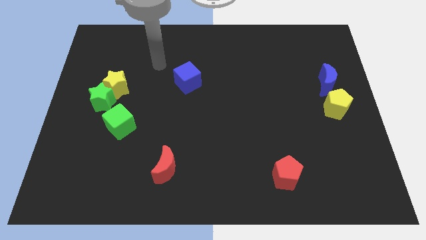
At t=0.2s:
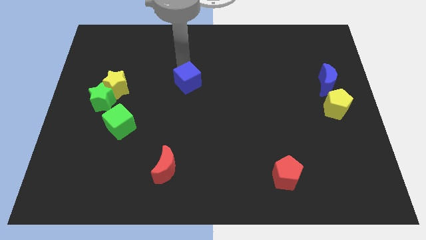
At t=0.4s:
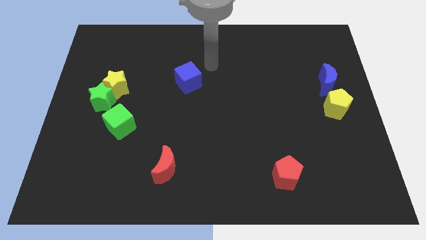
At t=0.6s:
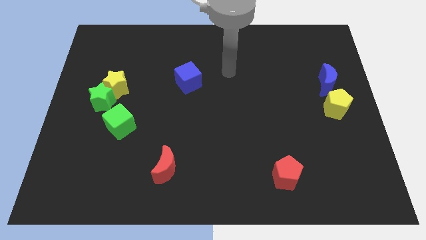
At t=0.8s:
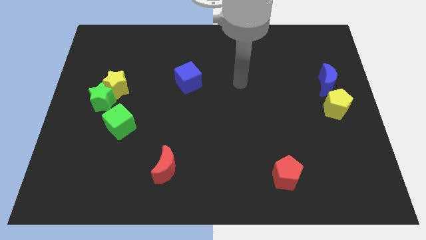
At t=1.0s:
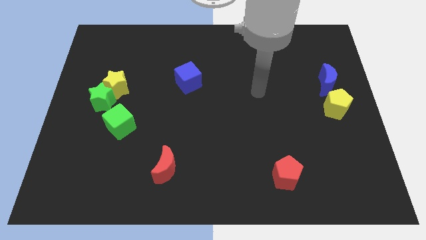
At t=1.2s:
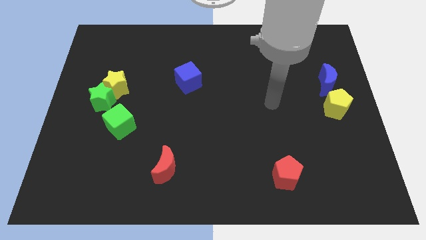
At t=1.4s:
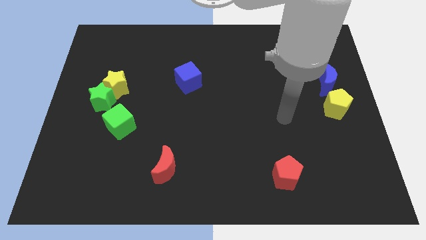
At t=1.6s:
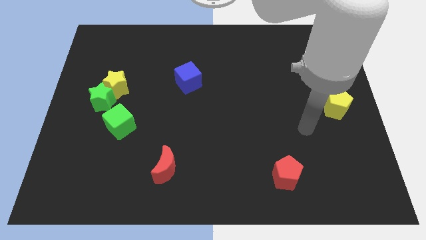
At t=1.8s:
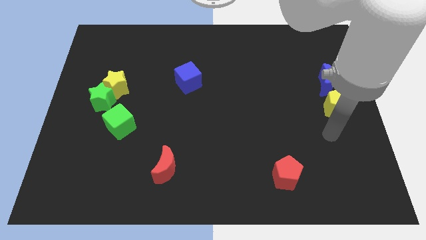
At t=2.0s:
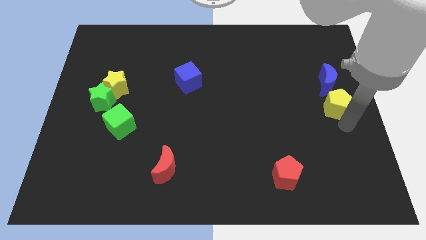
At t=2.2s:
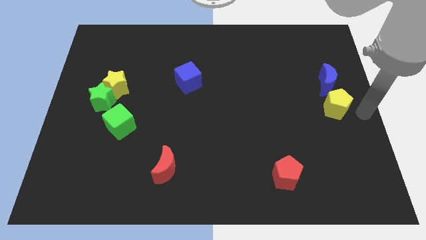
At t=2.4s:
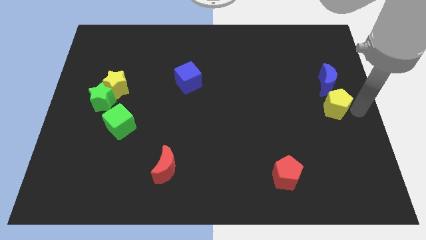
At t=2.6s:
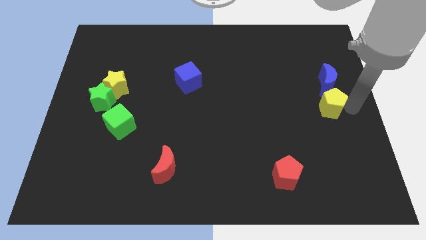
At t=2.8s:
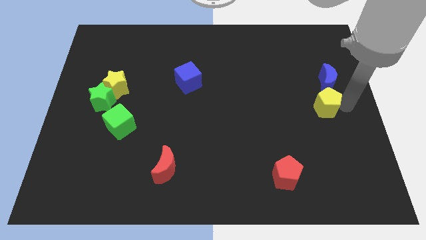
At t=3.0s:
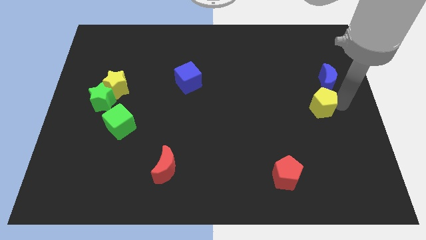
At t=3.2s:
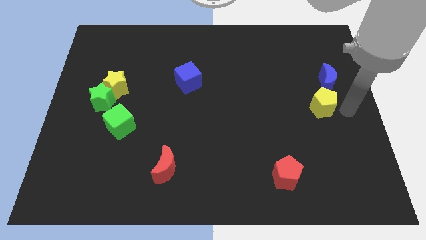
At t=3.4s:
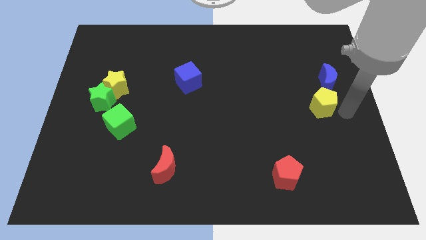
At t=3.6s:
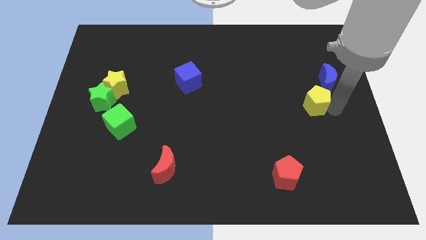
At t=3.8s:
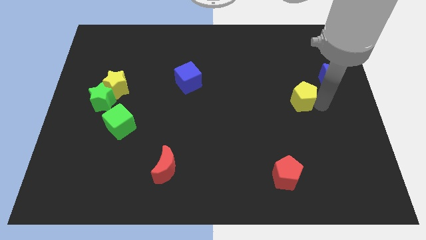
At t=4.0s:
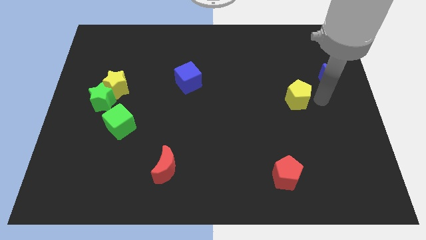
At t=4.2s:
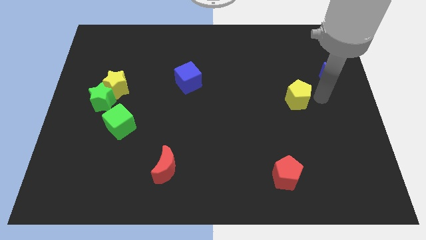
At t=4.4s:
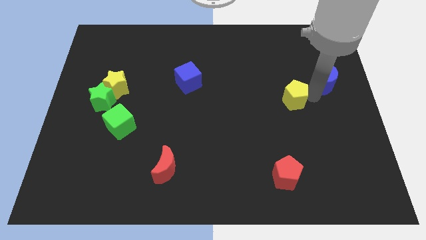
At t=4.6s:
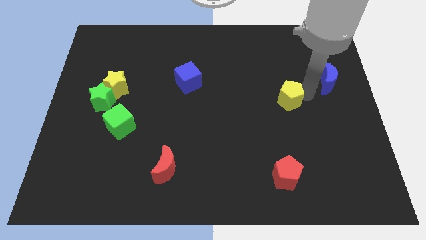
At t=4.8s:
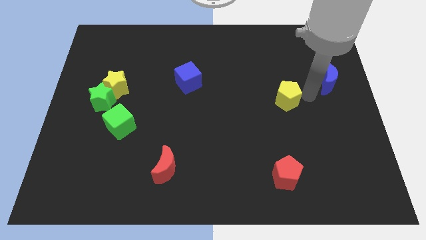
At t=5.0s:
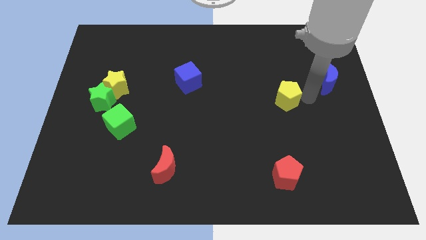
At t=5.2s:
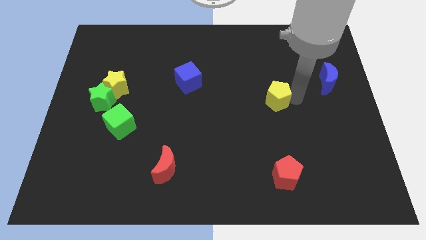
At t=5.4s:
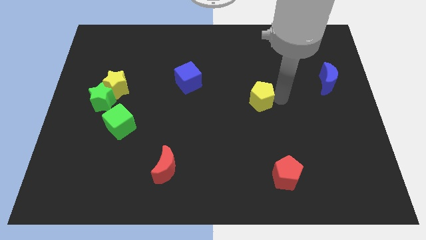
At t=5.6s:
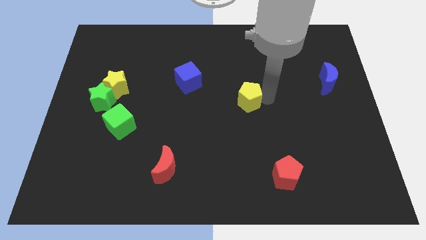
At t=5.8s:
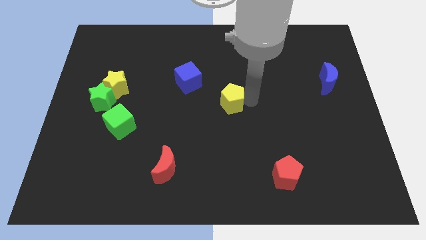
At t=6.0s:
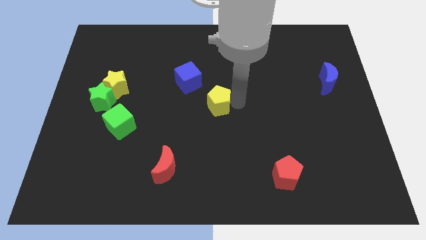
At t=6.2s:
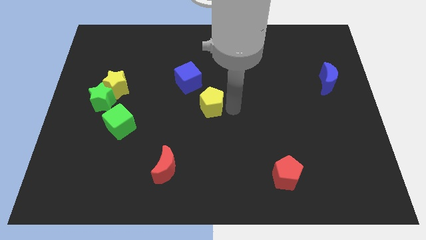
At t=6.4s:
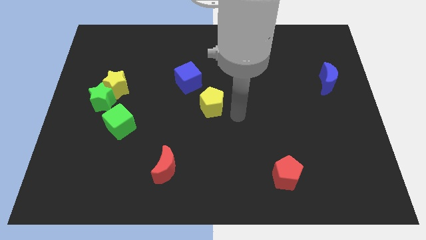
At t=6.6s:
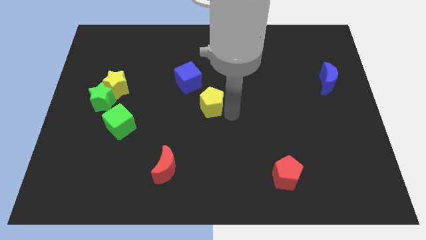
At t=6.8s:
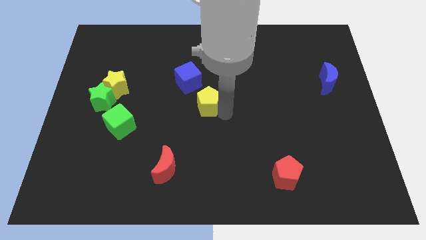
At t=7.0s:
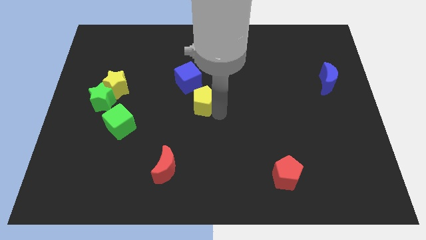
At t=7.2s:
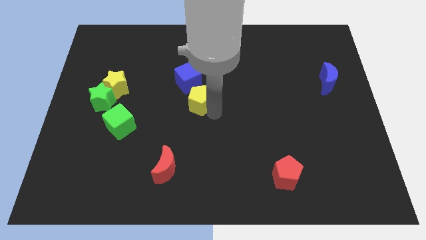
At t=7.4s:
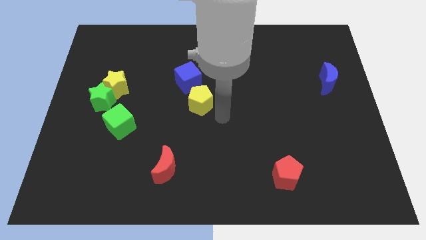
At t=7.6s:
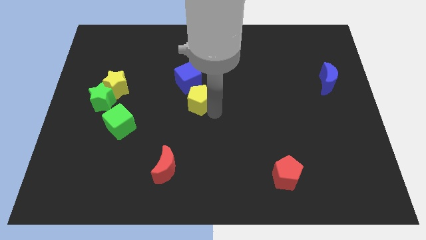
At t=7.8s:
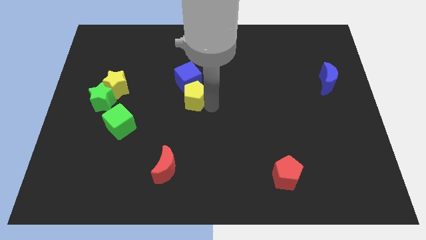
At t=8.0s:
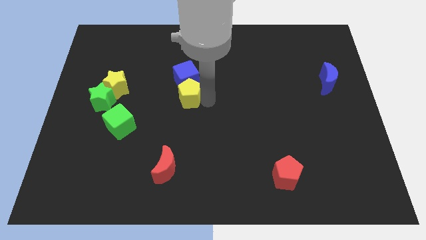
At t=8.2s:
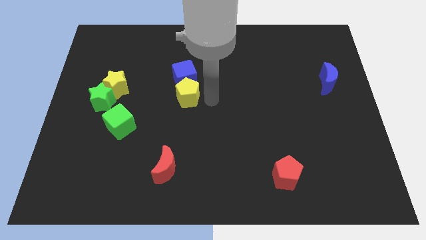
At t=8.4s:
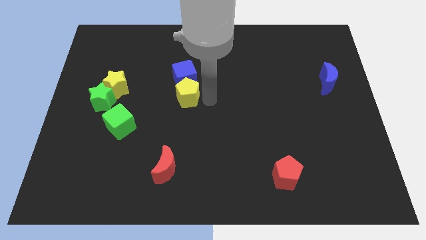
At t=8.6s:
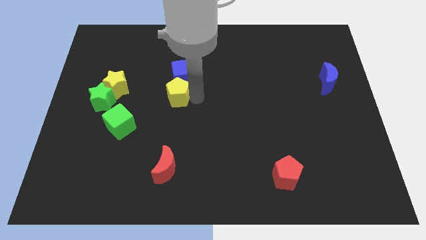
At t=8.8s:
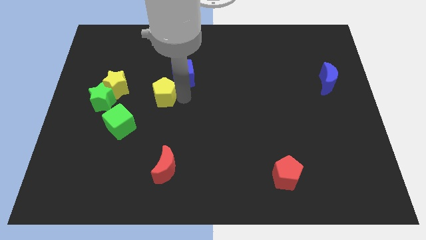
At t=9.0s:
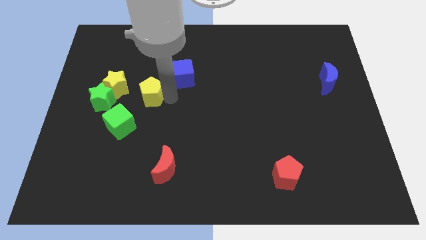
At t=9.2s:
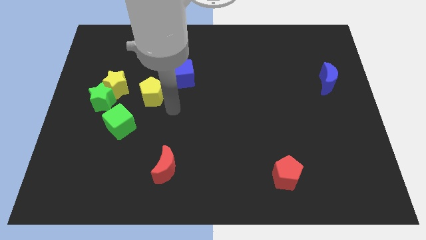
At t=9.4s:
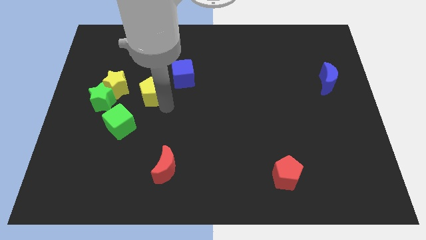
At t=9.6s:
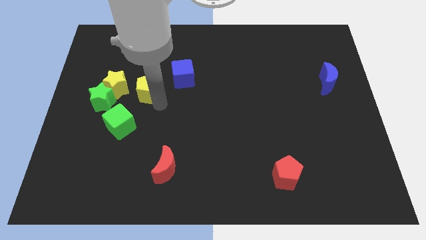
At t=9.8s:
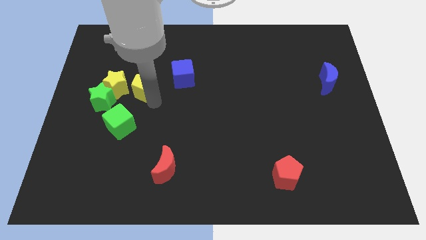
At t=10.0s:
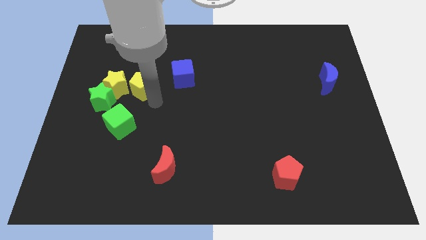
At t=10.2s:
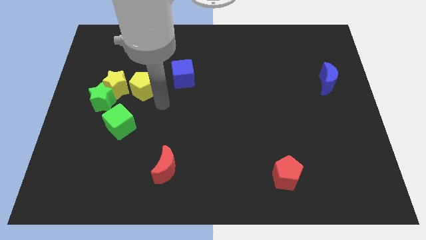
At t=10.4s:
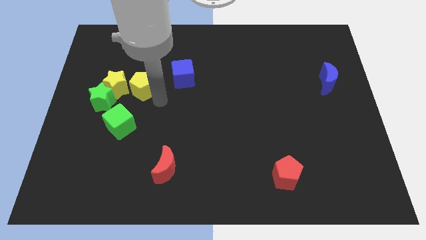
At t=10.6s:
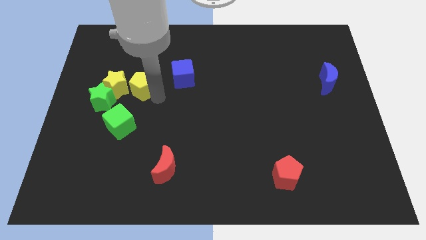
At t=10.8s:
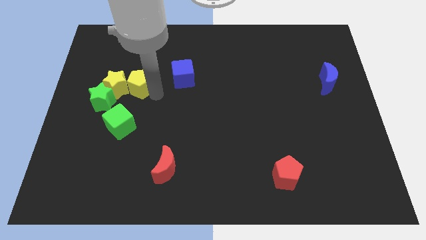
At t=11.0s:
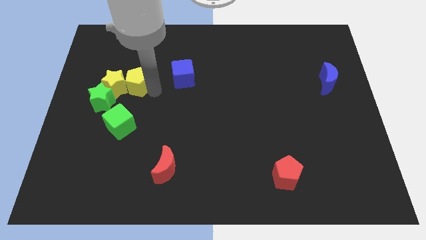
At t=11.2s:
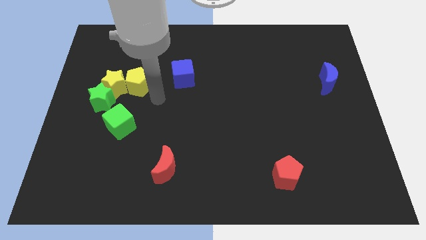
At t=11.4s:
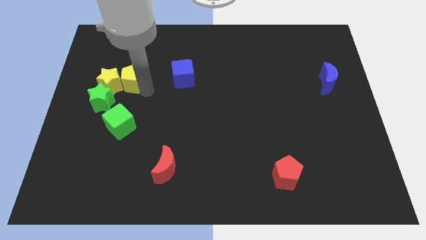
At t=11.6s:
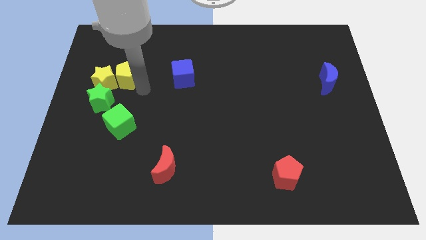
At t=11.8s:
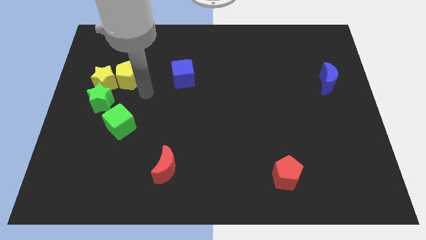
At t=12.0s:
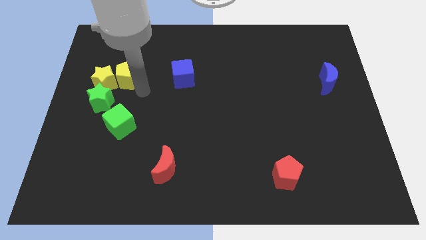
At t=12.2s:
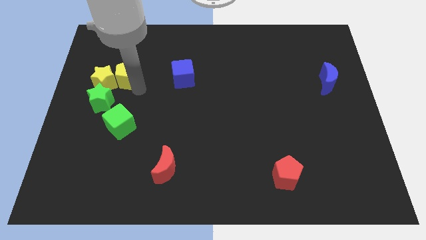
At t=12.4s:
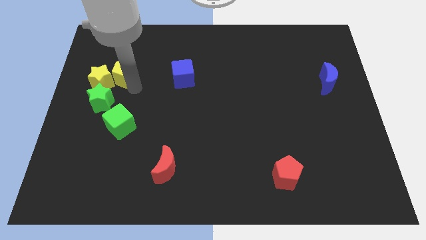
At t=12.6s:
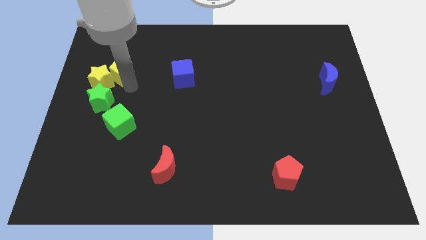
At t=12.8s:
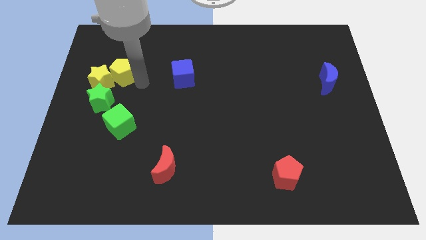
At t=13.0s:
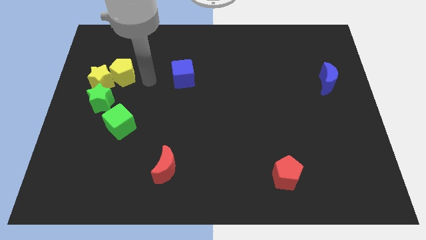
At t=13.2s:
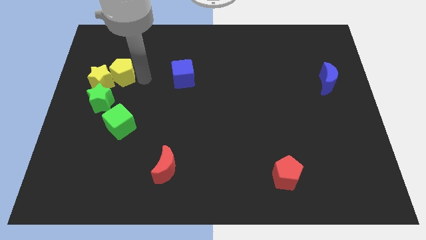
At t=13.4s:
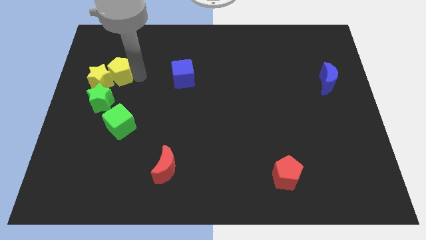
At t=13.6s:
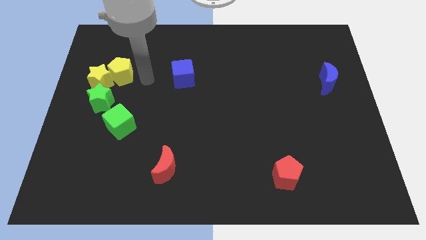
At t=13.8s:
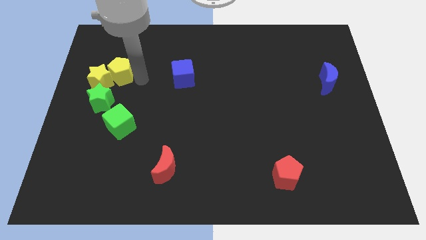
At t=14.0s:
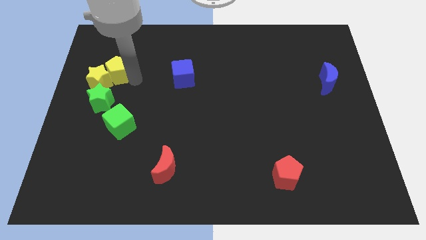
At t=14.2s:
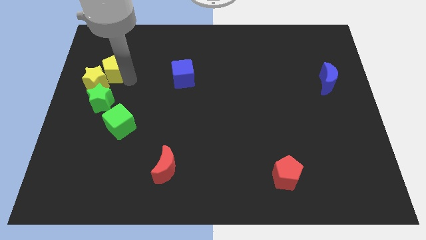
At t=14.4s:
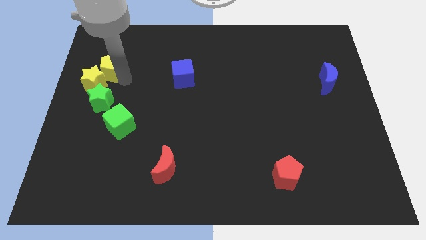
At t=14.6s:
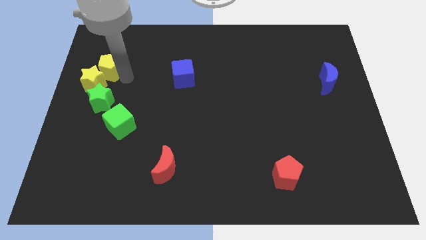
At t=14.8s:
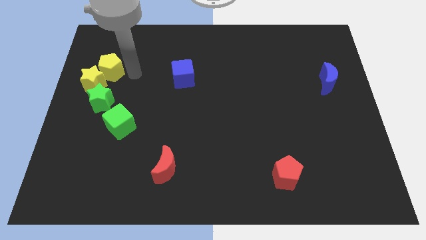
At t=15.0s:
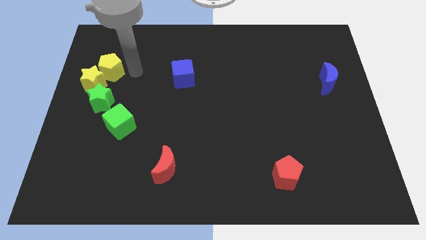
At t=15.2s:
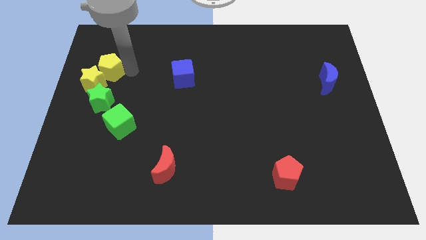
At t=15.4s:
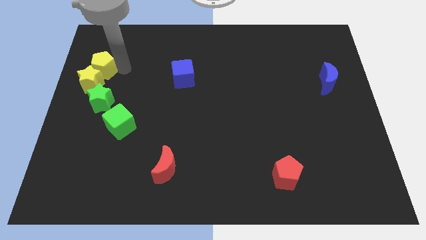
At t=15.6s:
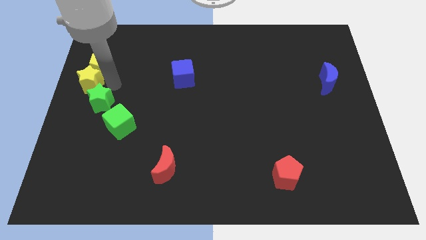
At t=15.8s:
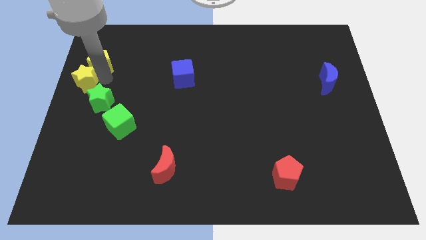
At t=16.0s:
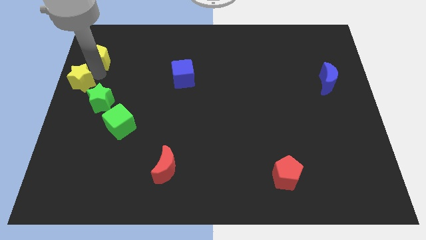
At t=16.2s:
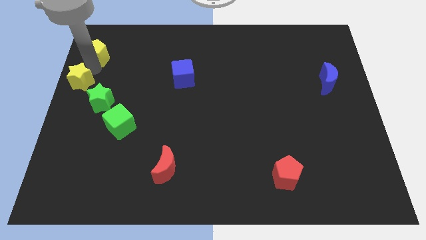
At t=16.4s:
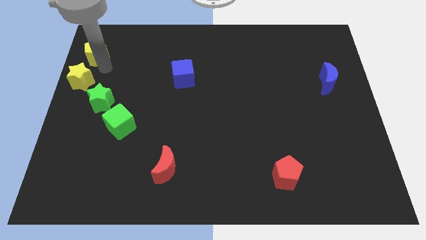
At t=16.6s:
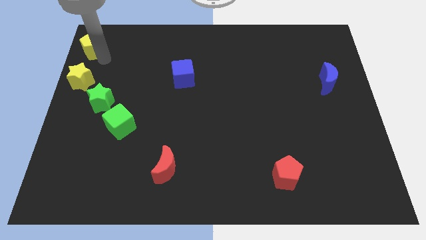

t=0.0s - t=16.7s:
slide the yellow pentagon to the top left of the board

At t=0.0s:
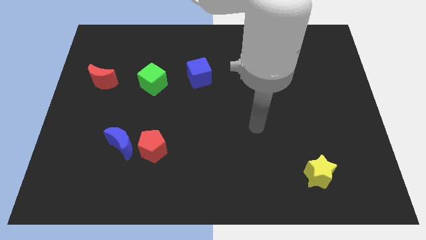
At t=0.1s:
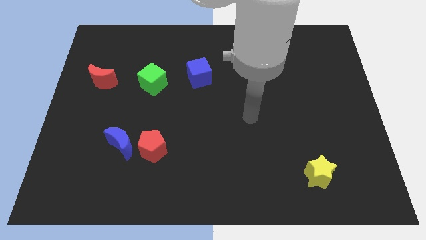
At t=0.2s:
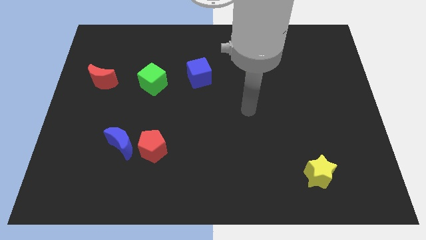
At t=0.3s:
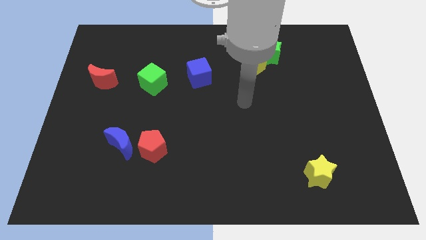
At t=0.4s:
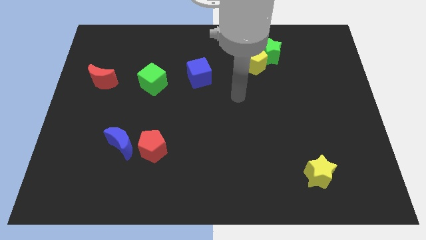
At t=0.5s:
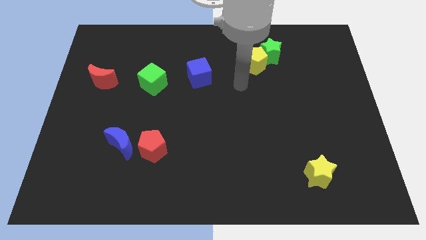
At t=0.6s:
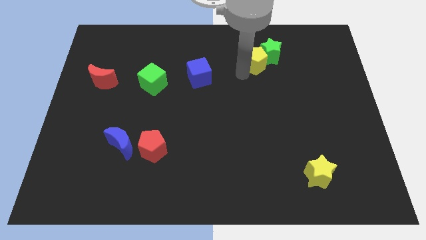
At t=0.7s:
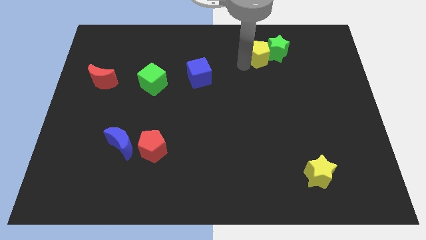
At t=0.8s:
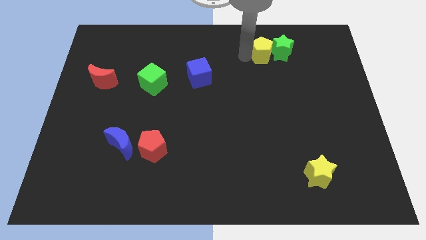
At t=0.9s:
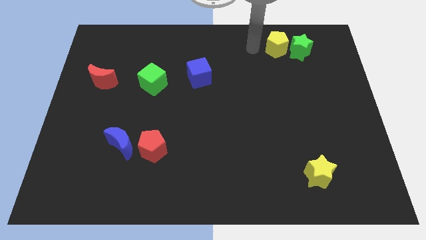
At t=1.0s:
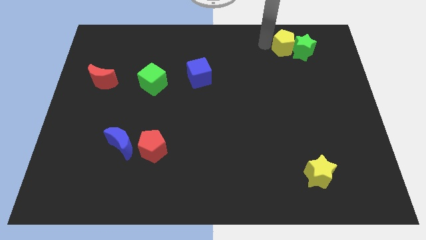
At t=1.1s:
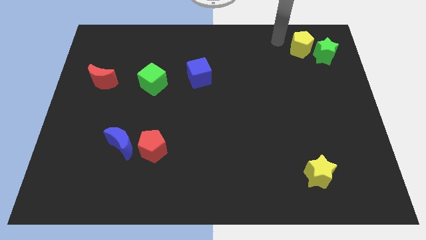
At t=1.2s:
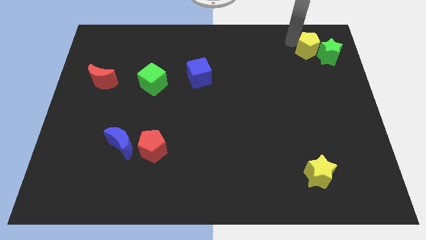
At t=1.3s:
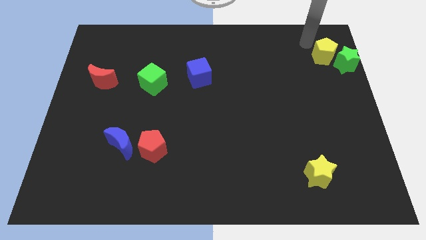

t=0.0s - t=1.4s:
put the green star to the right side of the board
